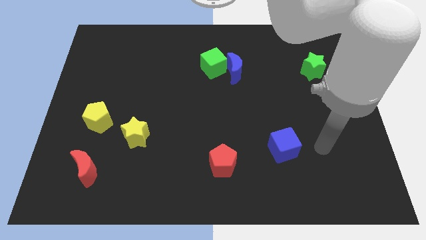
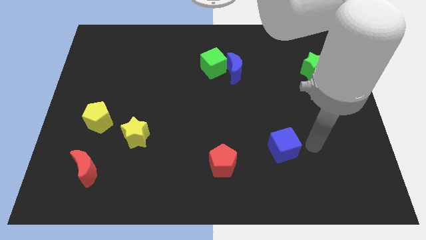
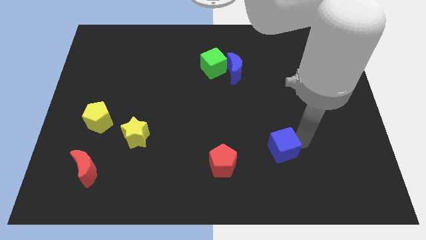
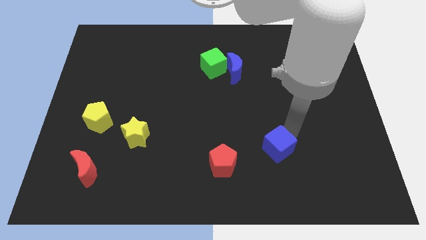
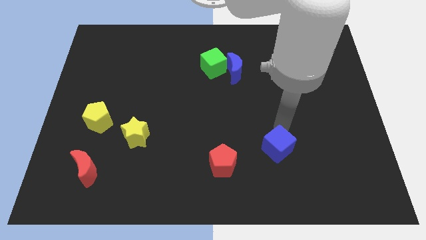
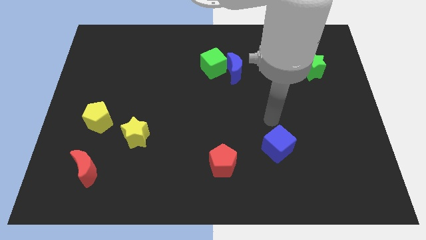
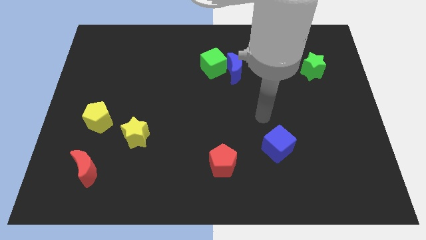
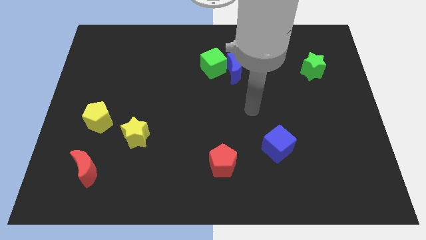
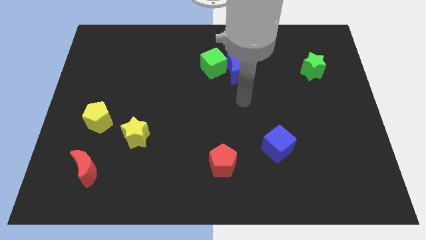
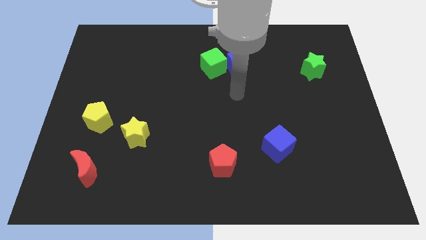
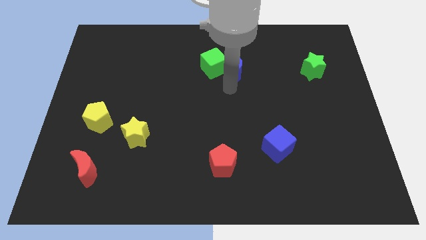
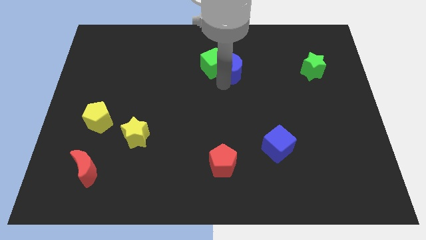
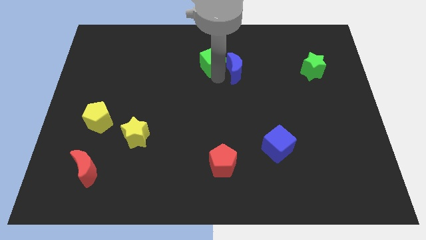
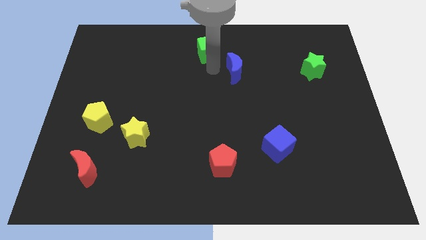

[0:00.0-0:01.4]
pull the blue moon apart from the green cube

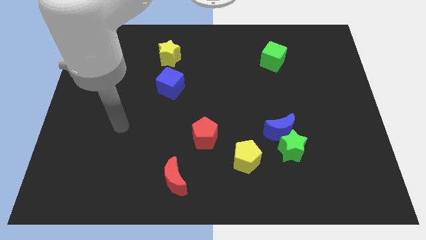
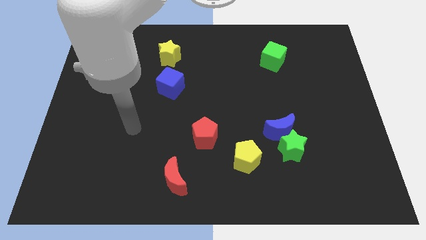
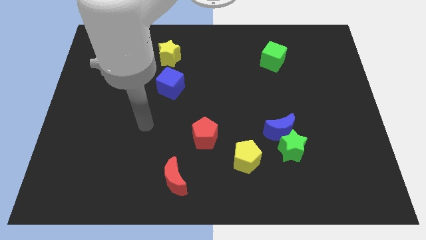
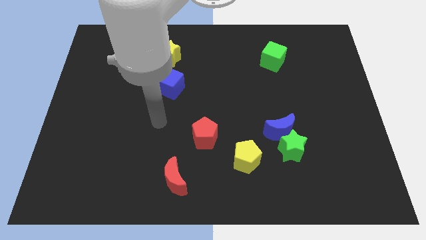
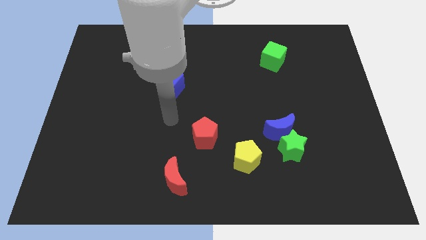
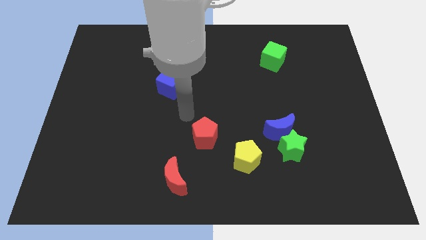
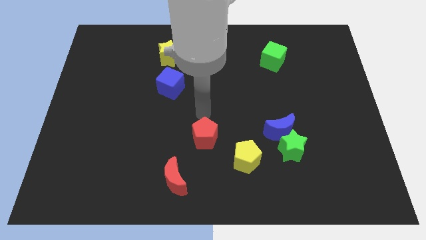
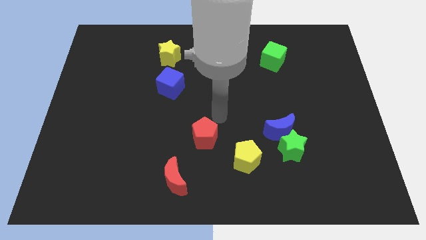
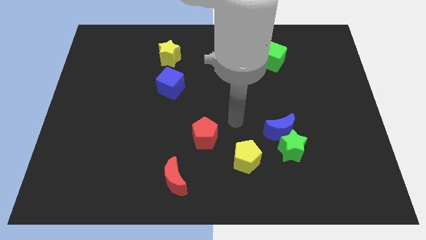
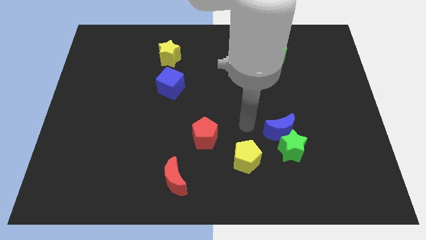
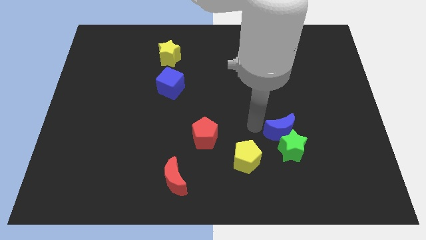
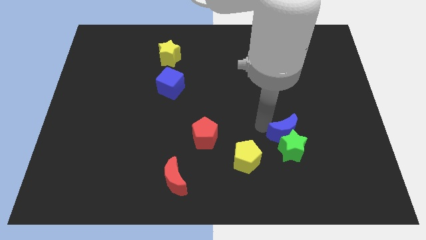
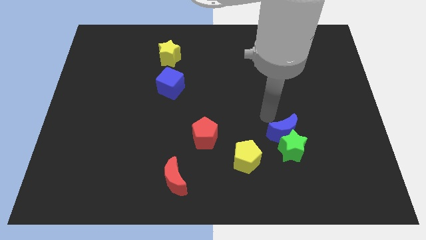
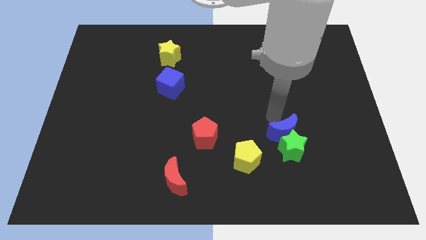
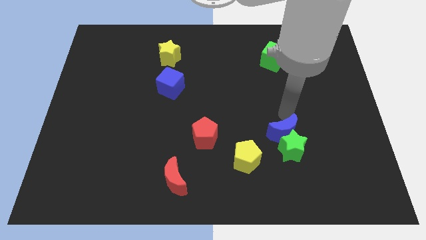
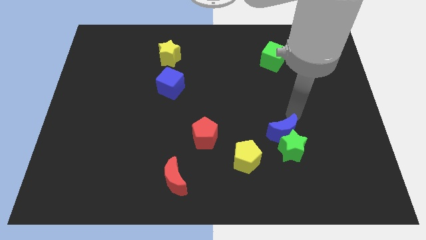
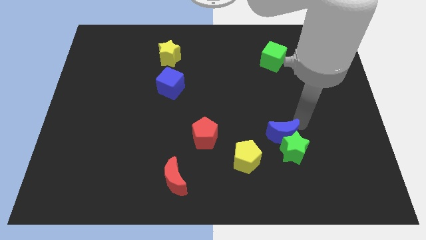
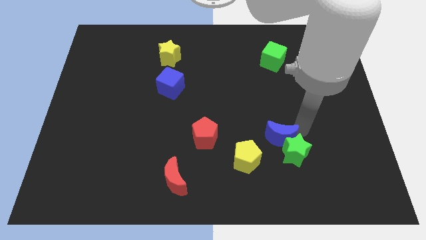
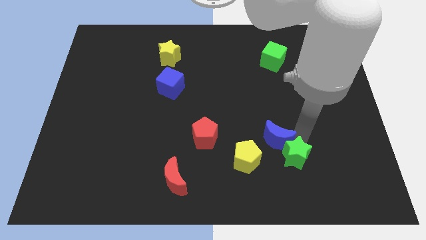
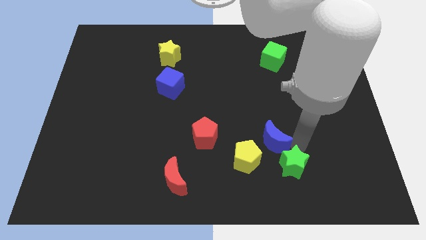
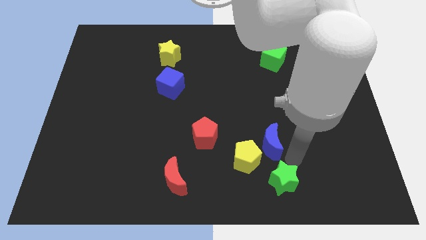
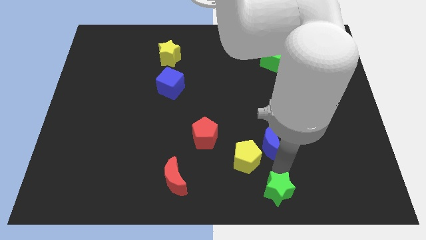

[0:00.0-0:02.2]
move the blue moon away from the green star

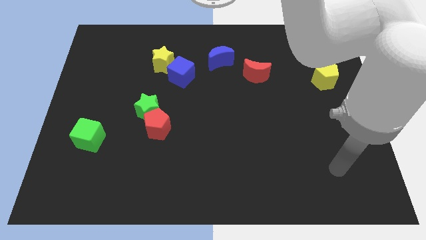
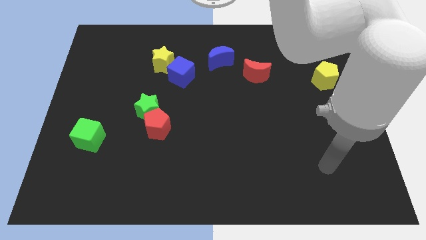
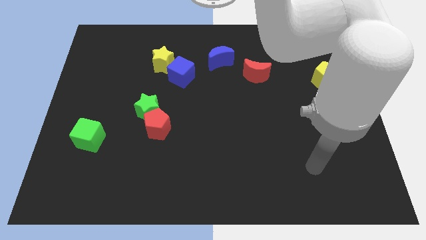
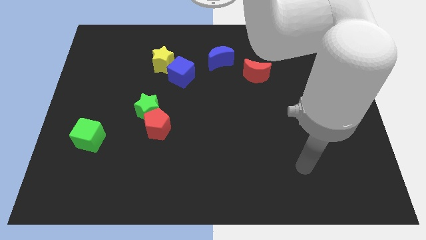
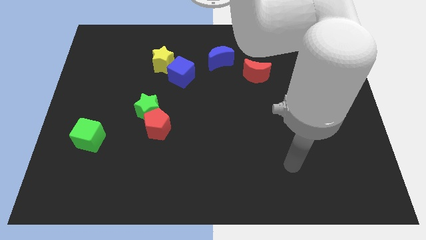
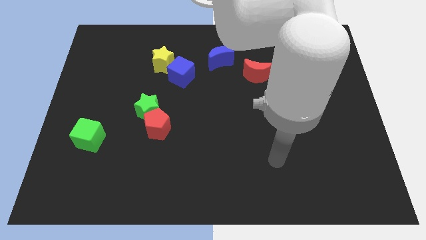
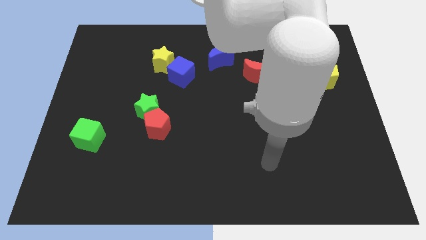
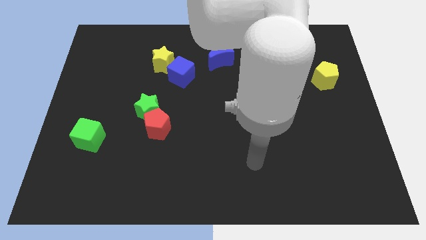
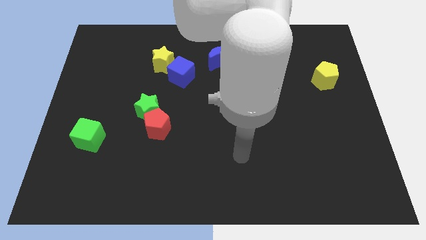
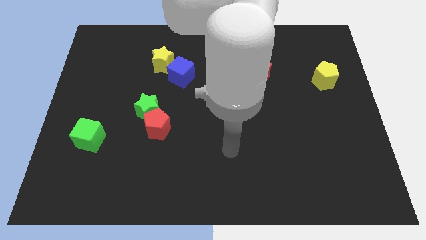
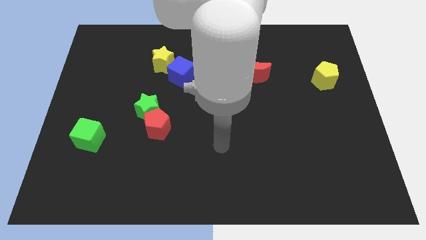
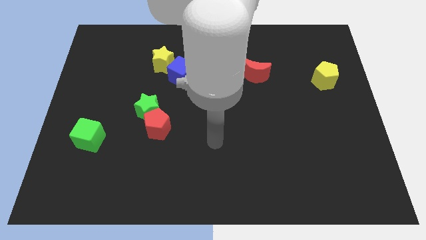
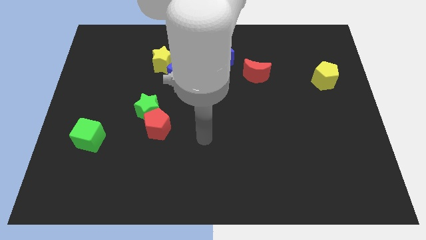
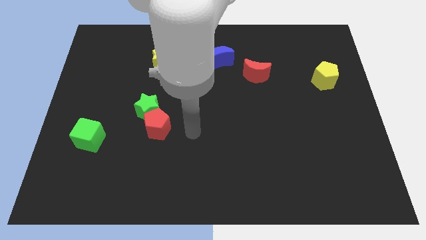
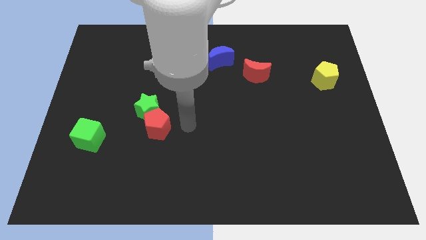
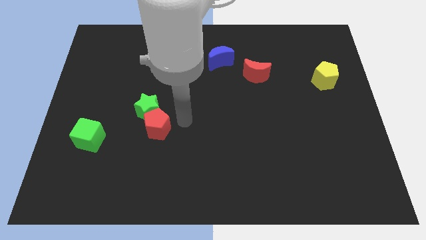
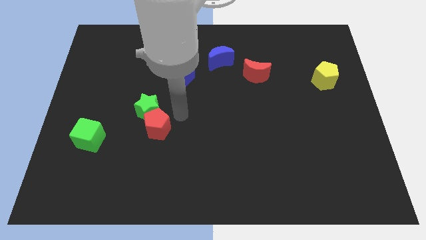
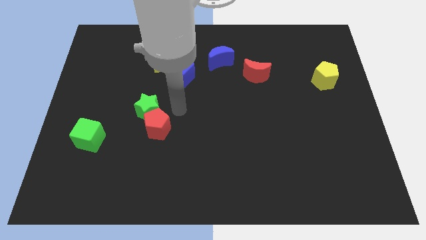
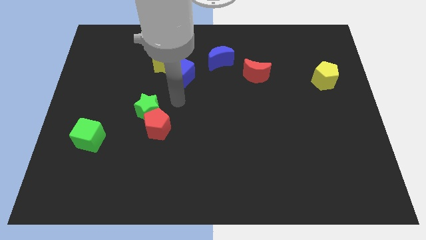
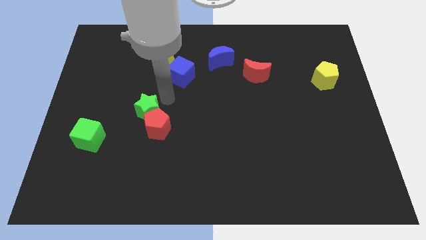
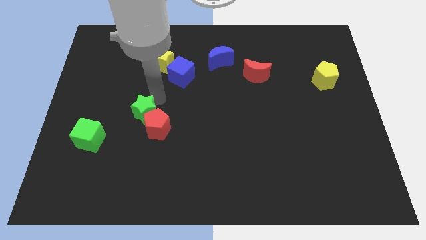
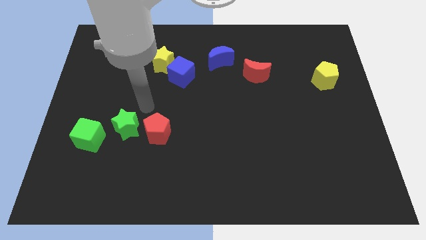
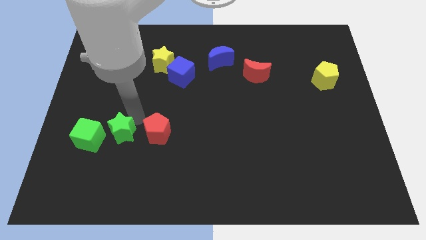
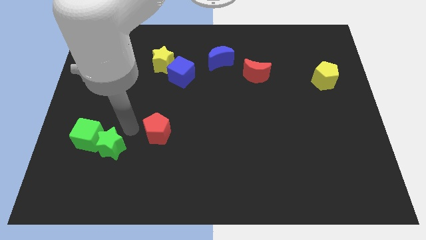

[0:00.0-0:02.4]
separate the red pentagon from the green star

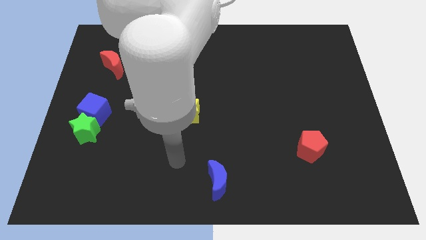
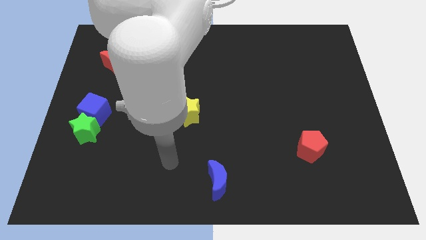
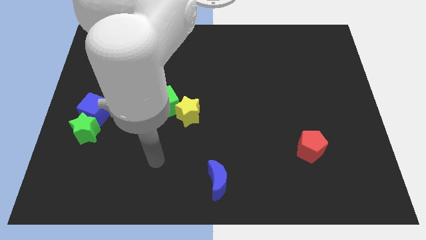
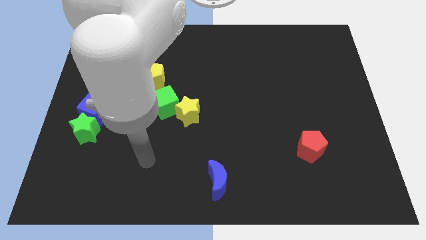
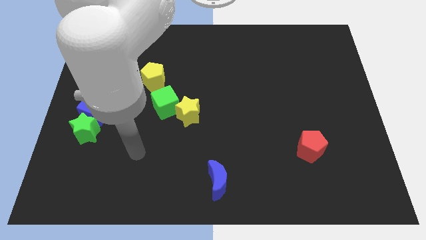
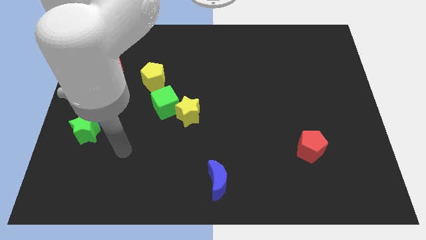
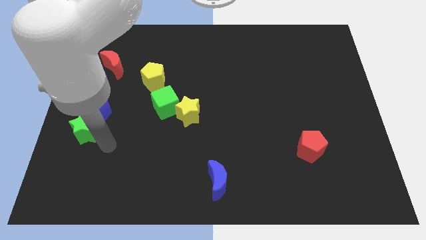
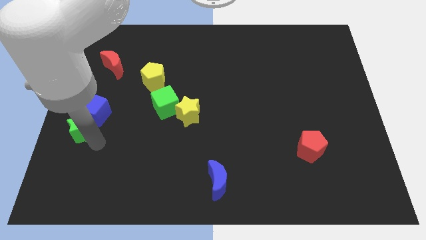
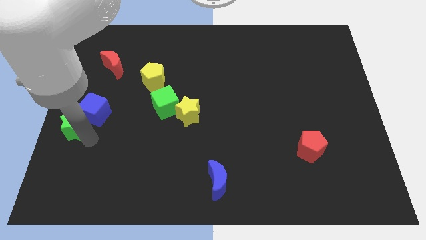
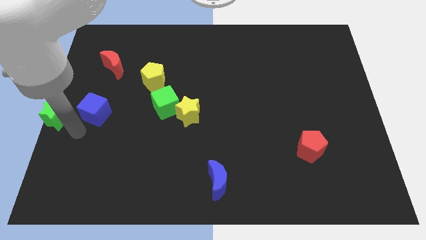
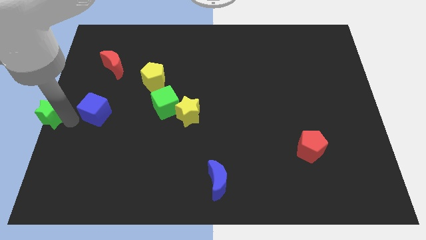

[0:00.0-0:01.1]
move the blue cube away from the green star

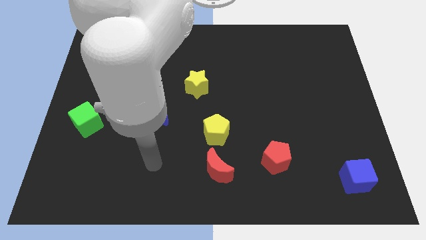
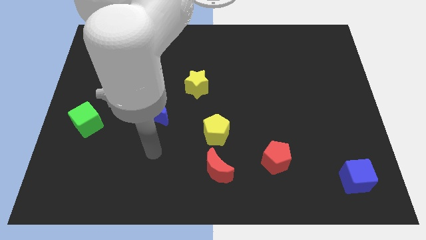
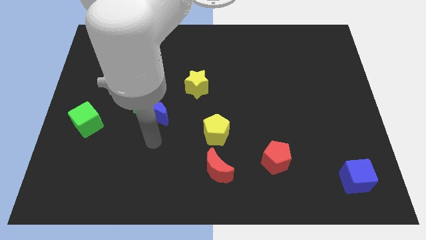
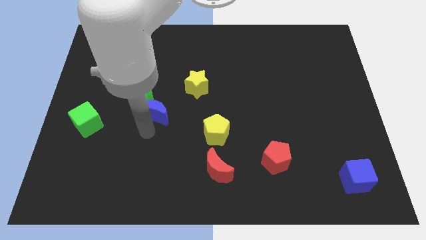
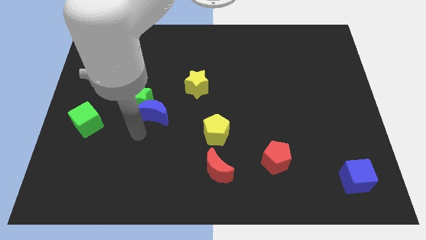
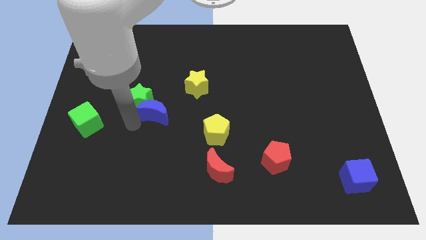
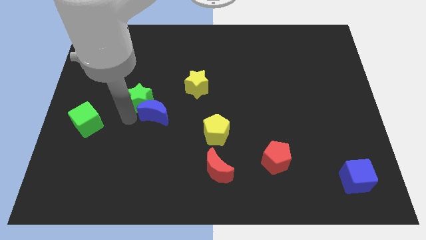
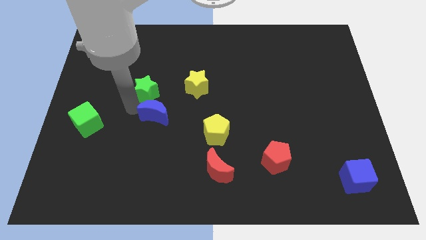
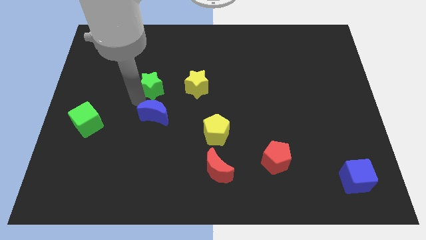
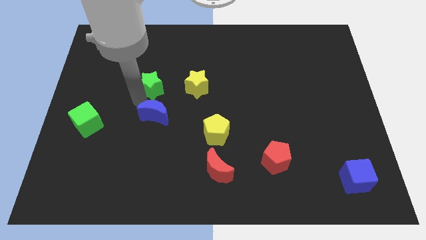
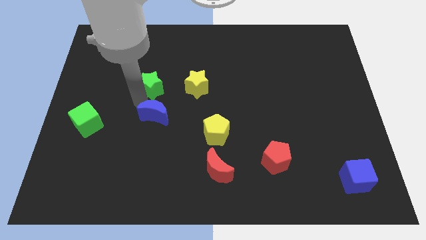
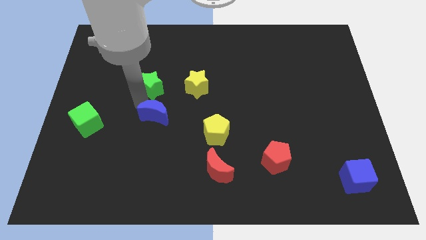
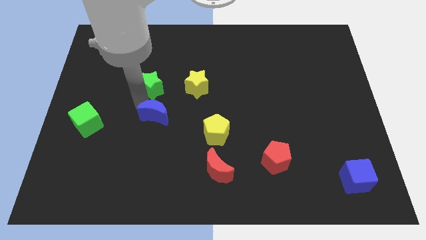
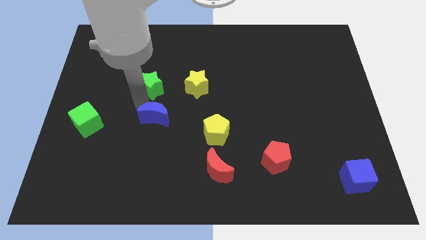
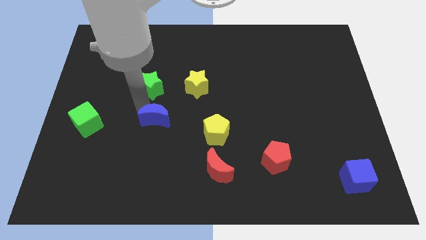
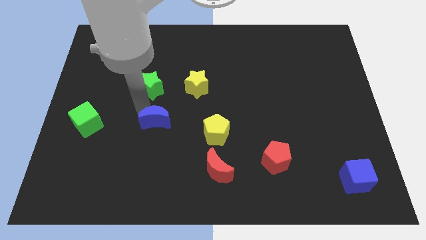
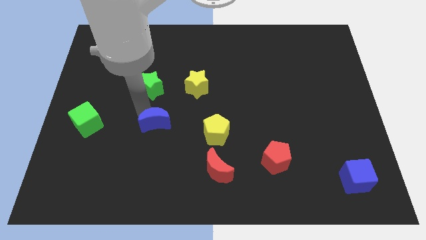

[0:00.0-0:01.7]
pull the blue moon apart from the green star

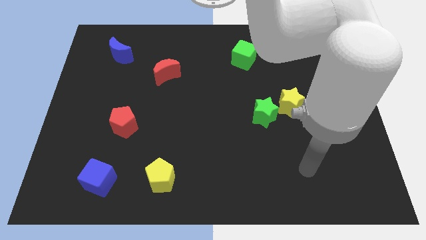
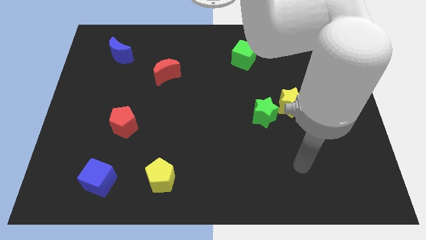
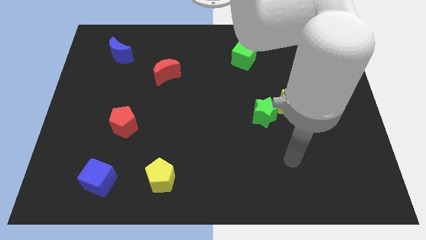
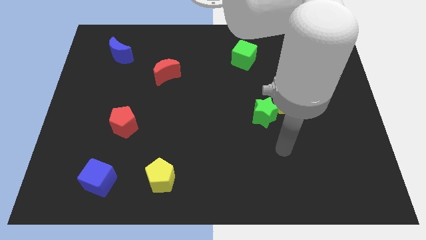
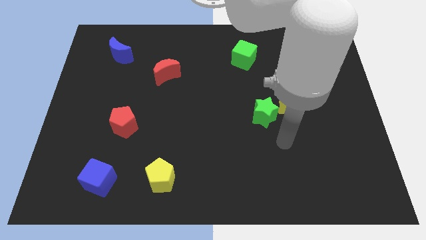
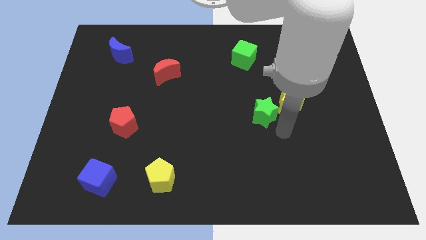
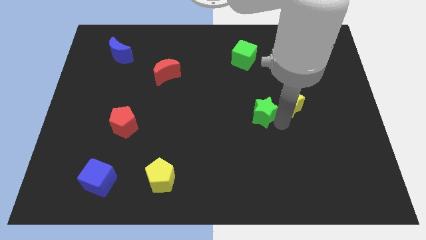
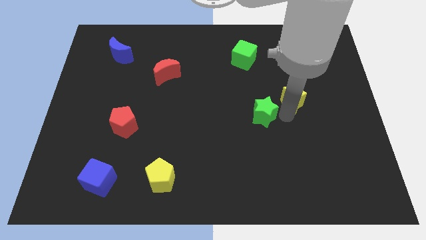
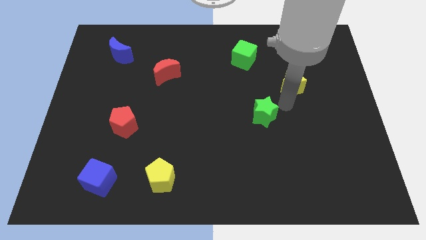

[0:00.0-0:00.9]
move the green star away from the yellow star
